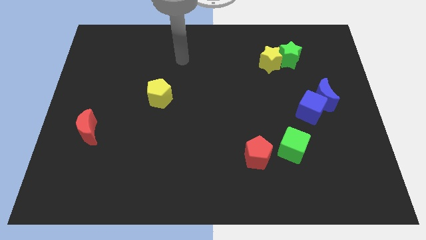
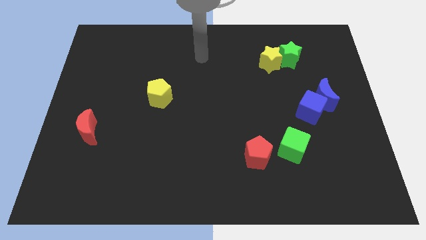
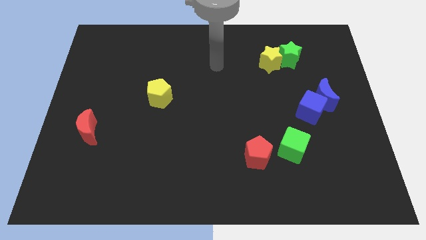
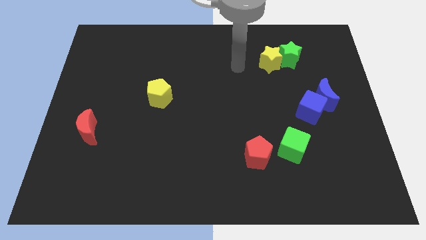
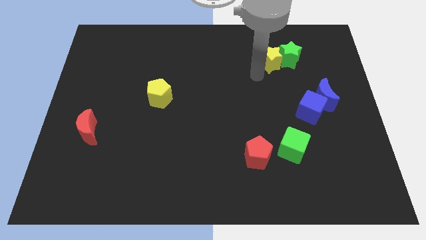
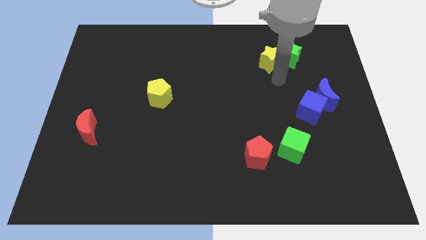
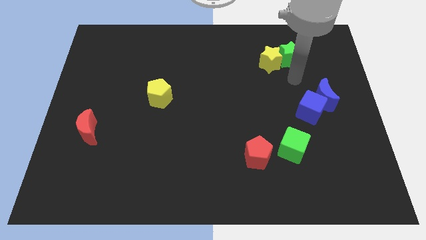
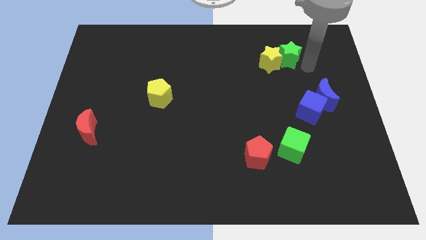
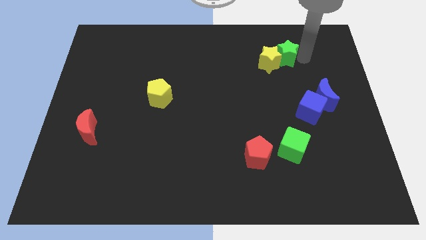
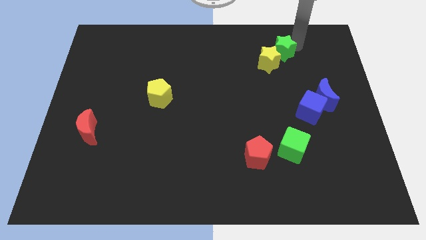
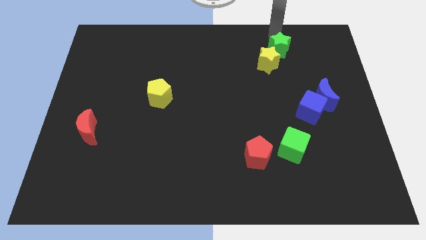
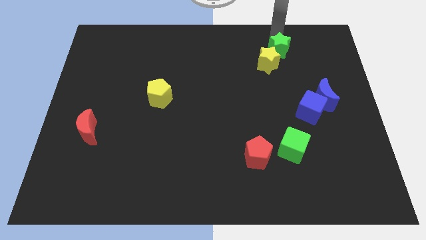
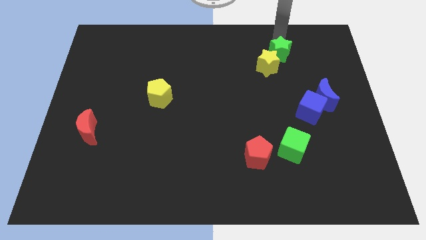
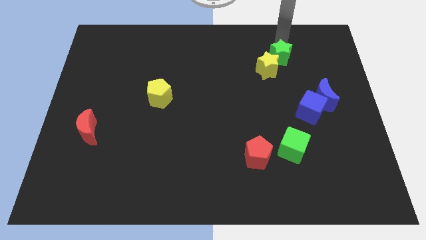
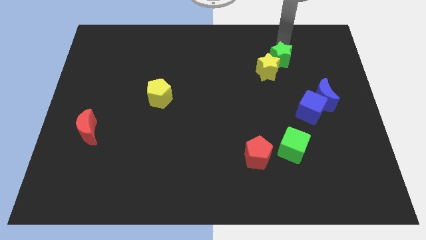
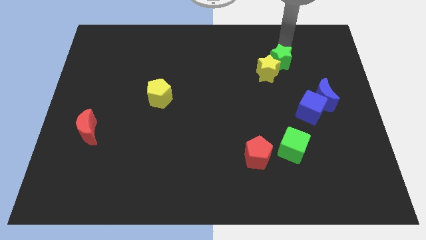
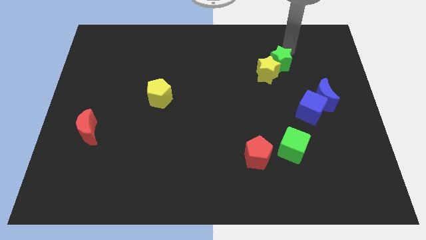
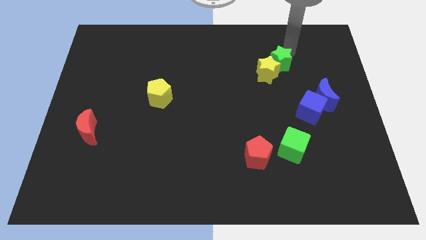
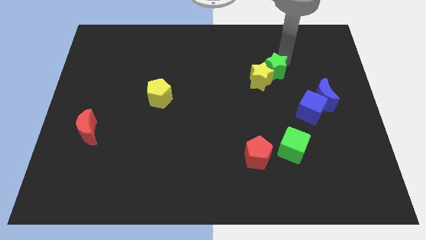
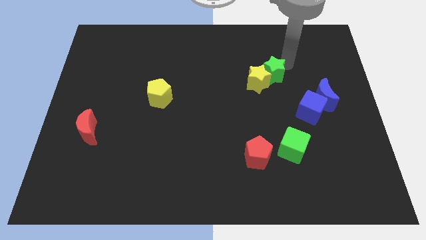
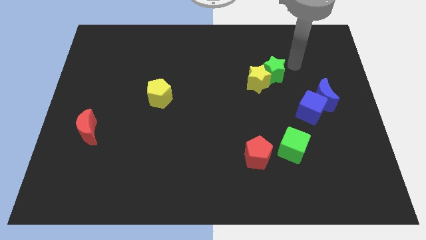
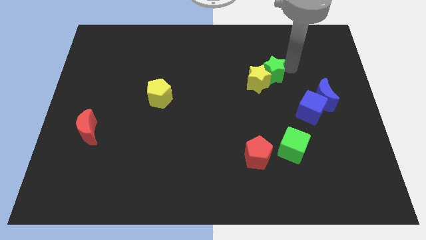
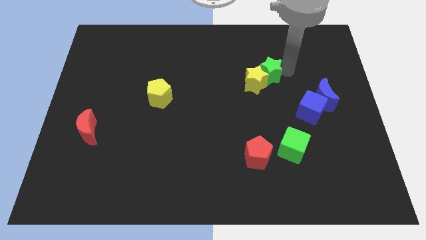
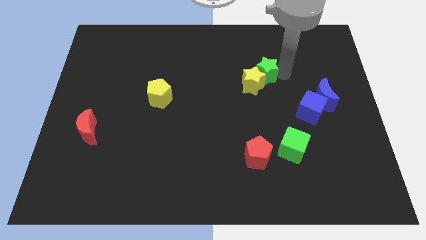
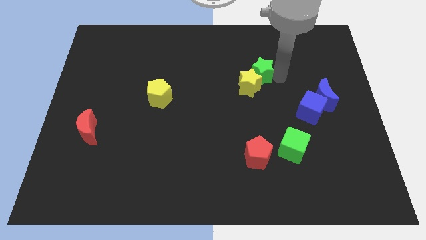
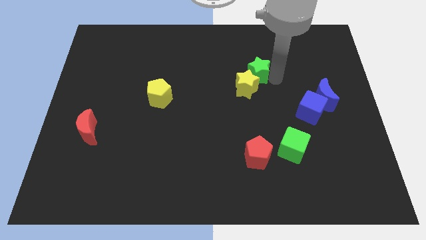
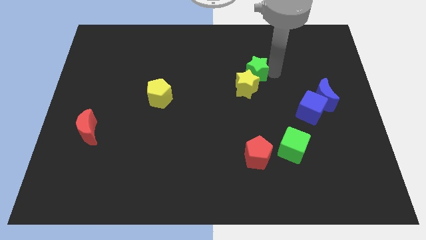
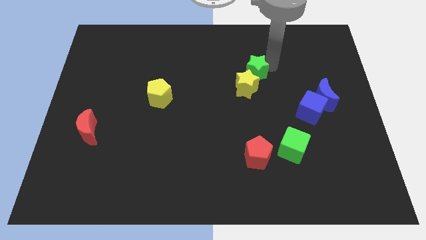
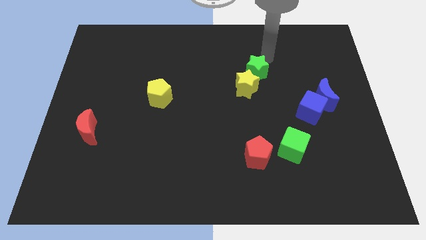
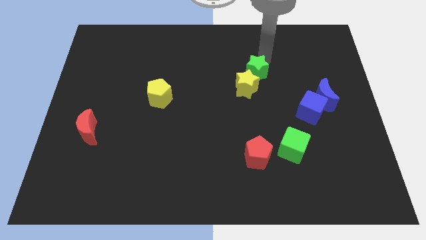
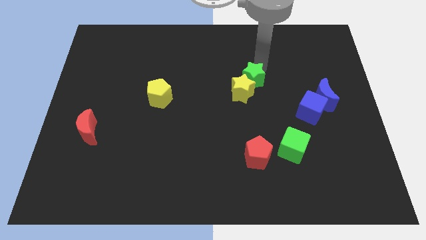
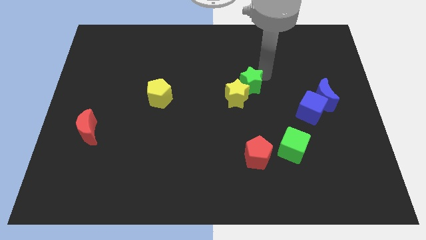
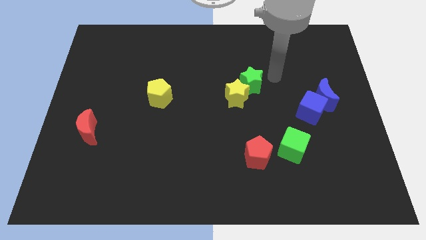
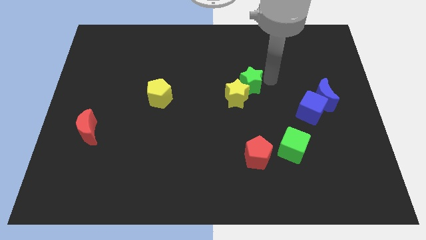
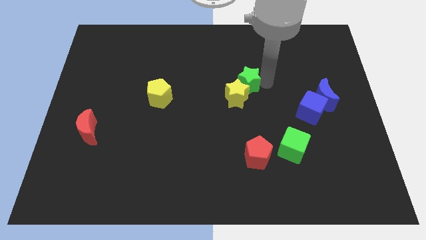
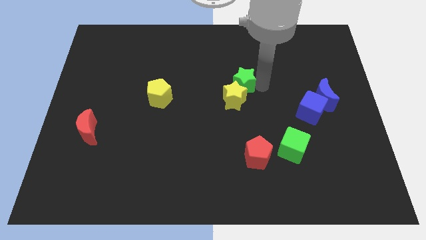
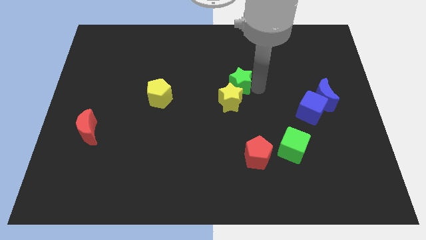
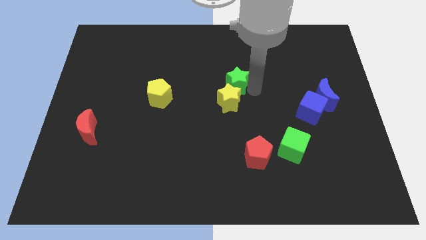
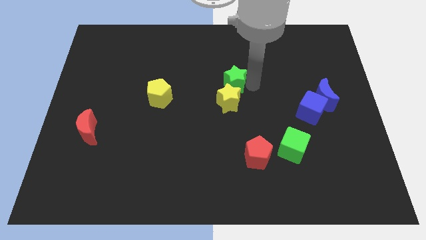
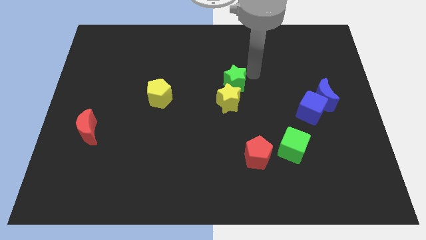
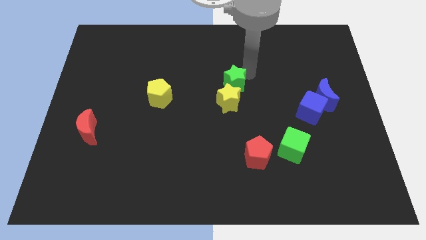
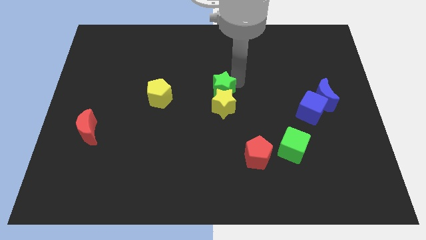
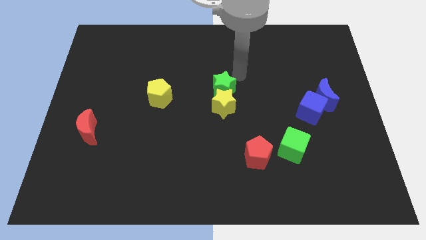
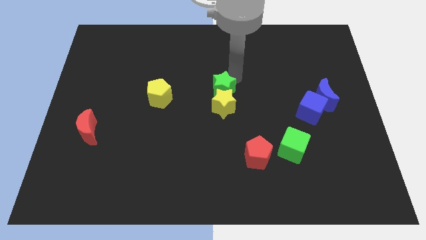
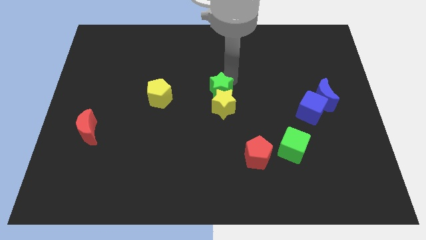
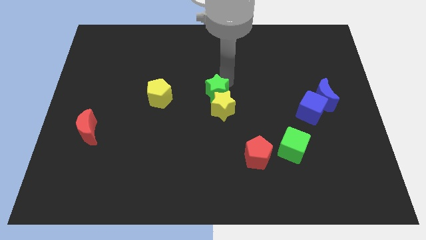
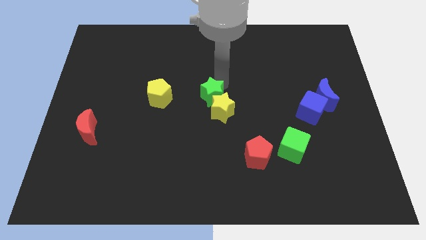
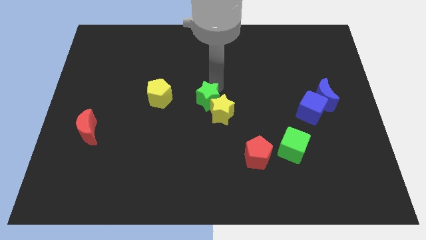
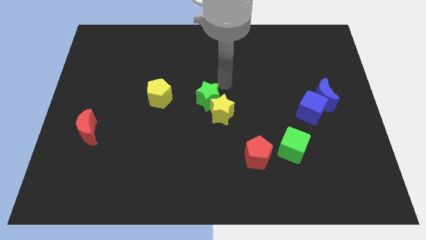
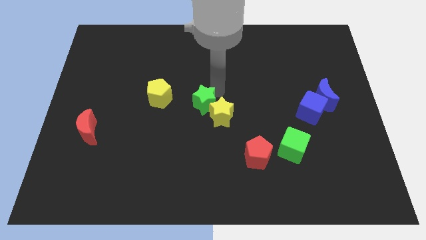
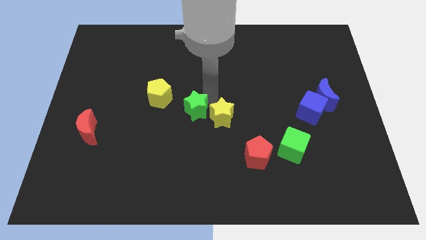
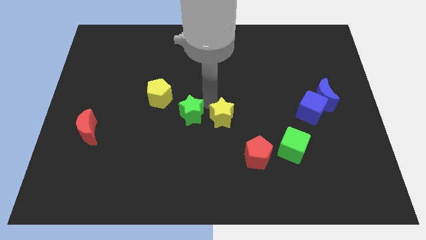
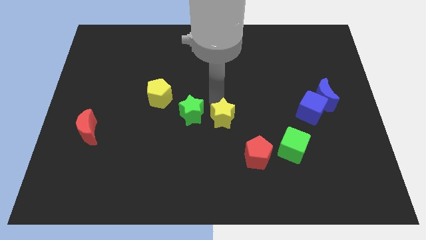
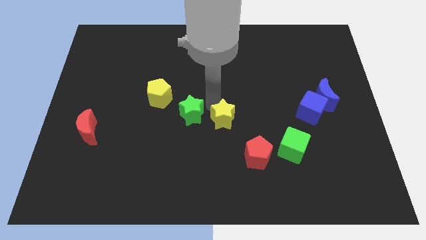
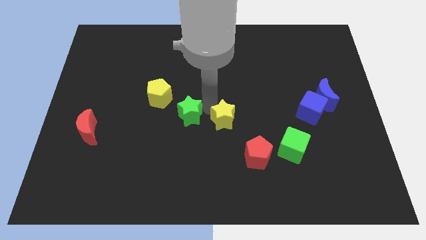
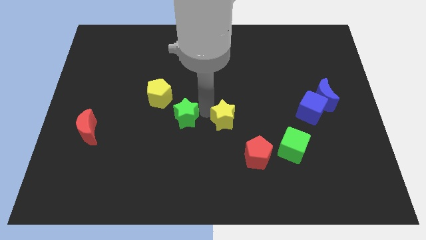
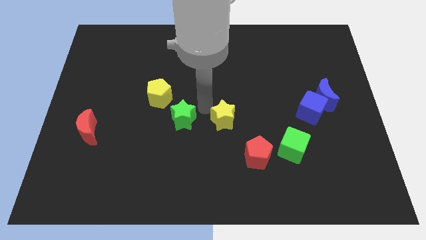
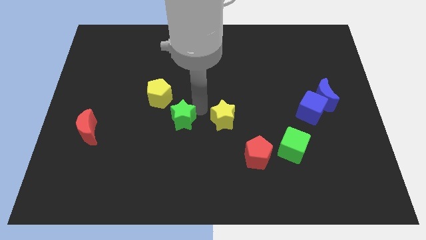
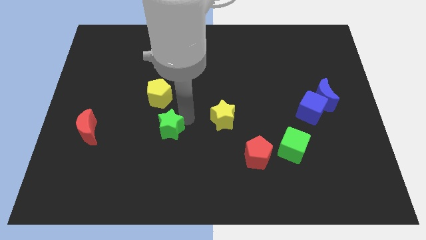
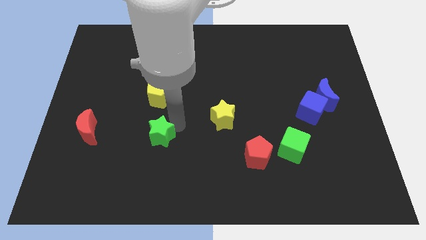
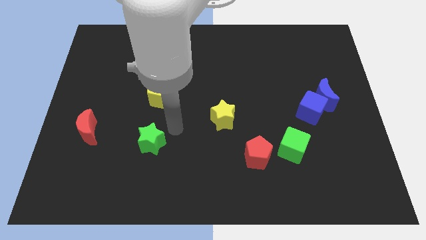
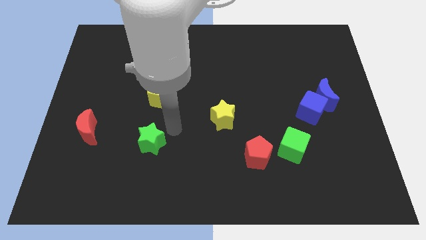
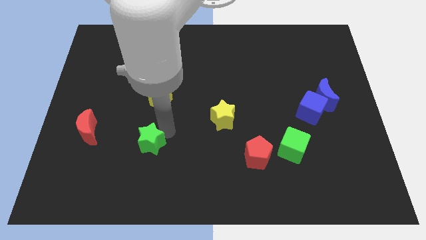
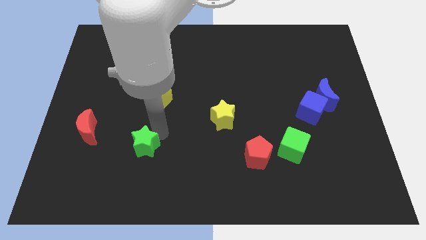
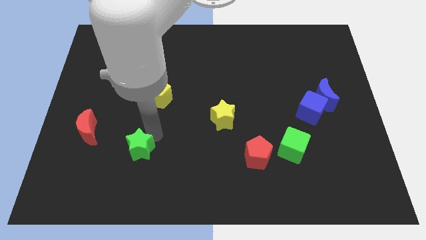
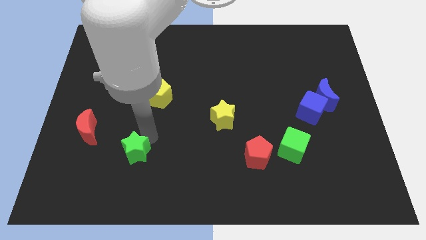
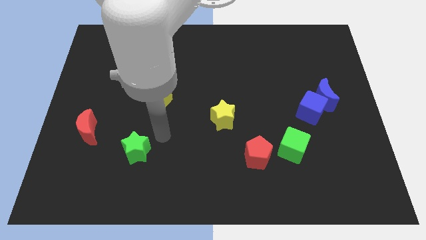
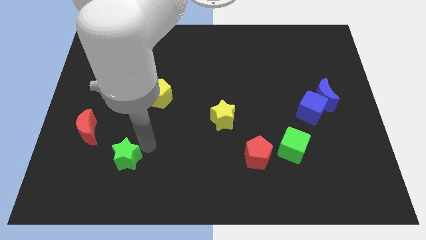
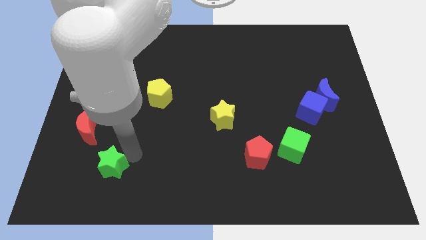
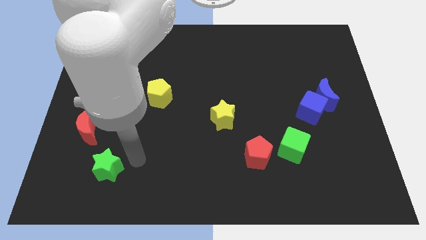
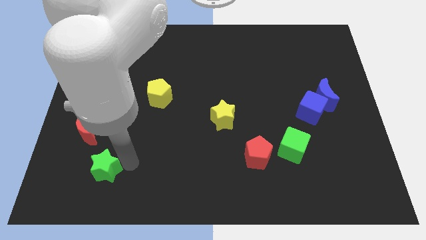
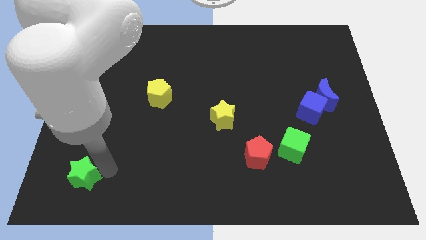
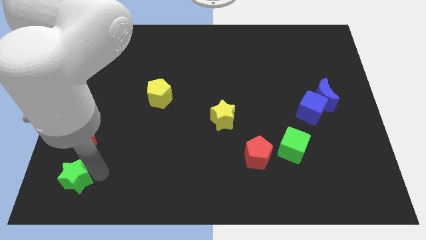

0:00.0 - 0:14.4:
slide the green star to the bottom left of the board
